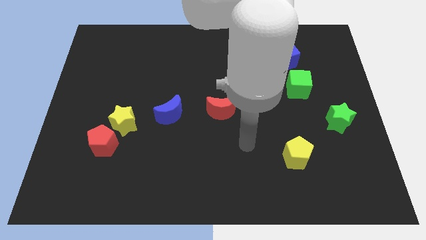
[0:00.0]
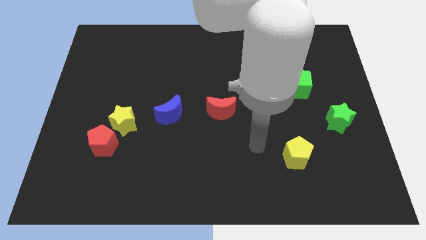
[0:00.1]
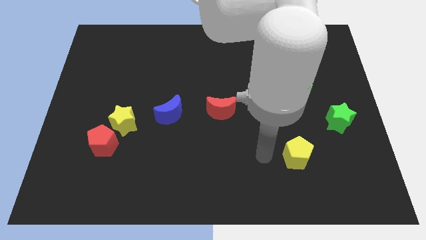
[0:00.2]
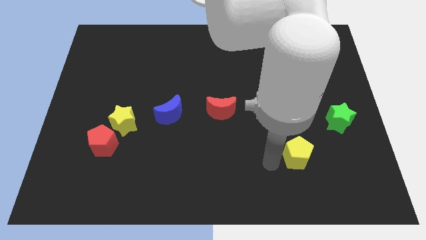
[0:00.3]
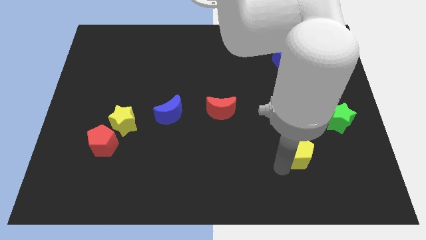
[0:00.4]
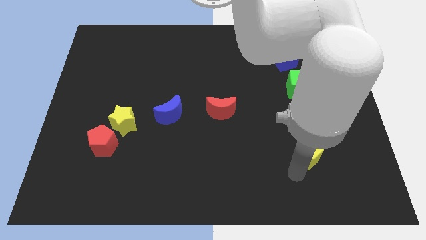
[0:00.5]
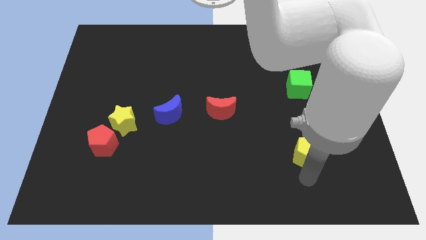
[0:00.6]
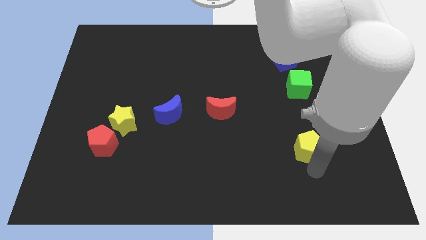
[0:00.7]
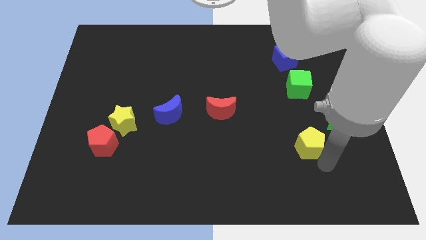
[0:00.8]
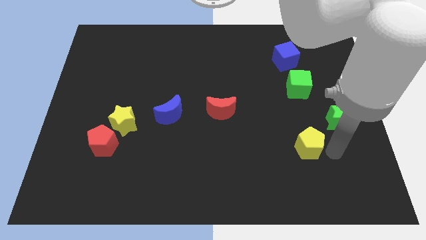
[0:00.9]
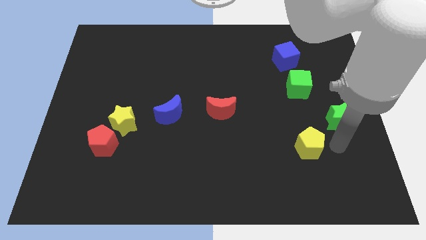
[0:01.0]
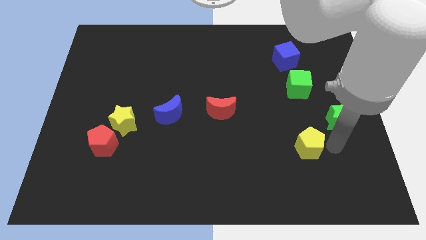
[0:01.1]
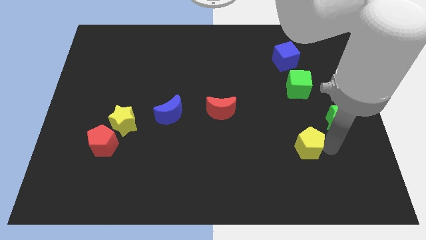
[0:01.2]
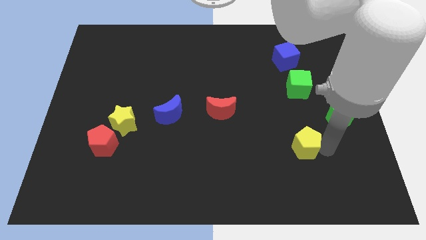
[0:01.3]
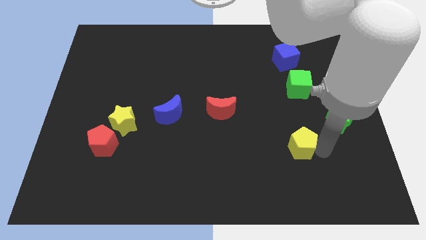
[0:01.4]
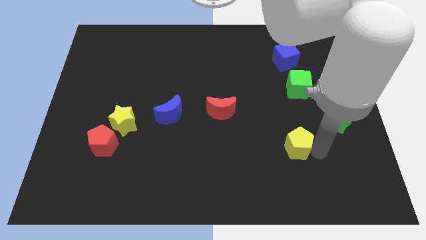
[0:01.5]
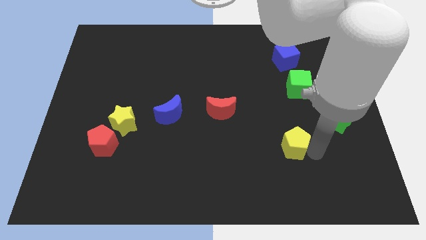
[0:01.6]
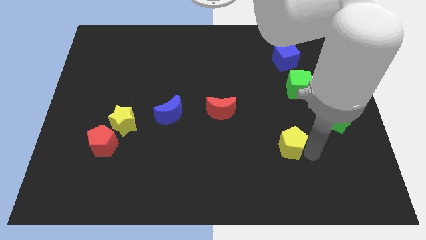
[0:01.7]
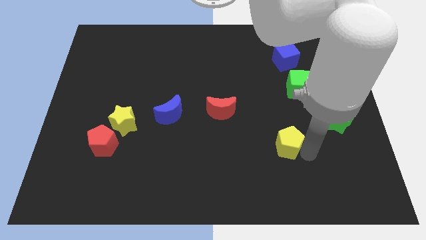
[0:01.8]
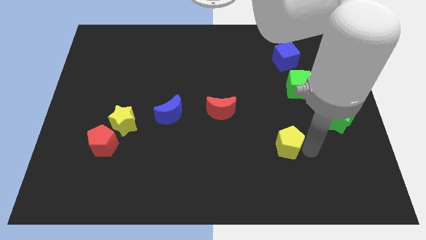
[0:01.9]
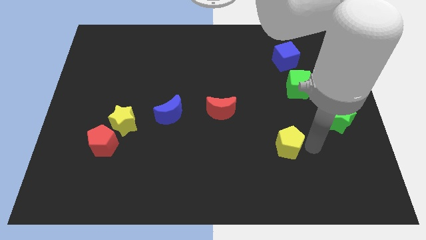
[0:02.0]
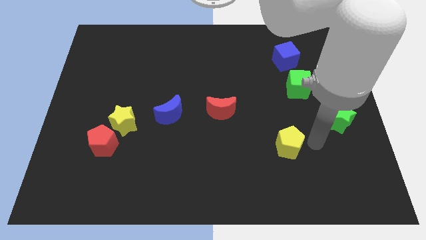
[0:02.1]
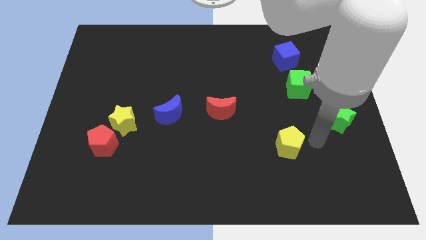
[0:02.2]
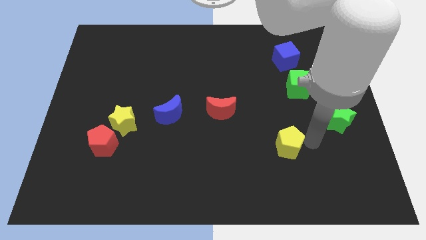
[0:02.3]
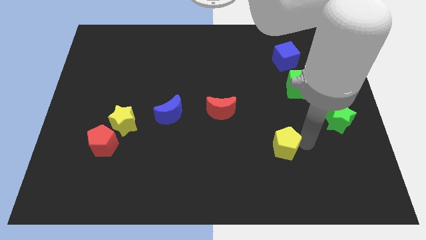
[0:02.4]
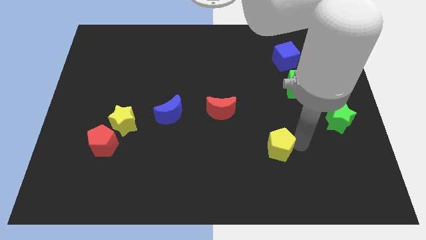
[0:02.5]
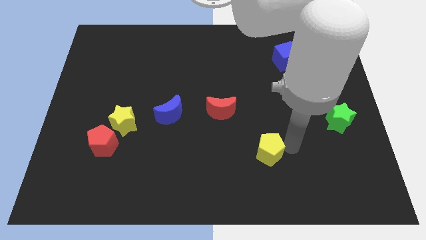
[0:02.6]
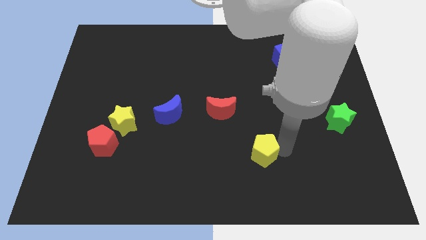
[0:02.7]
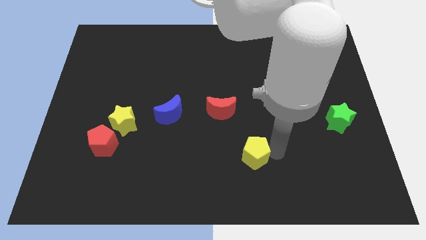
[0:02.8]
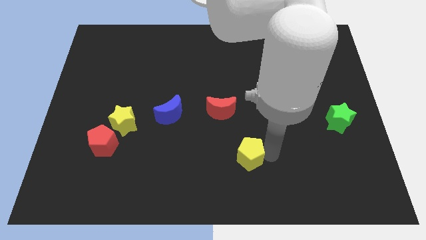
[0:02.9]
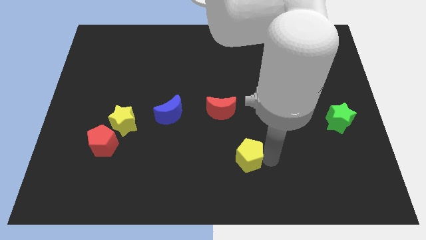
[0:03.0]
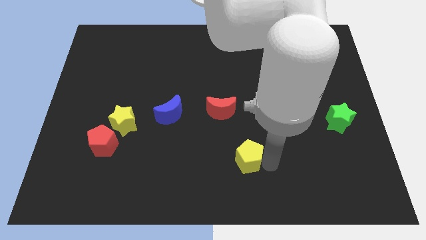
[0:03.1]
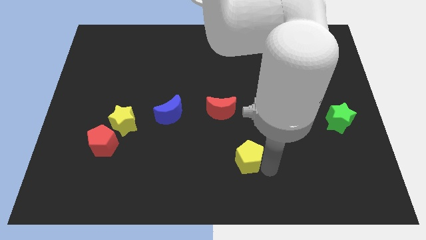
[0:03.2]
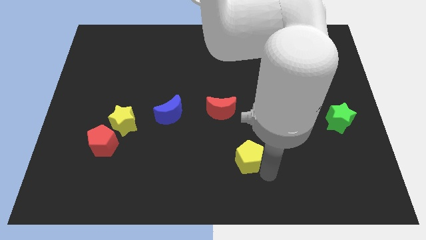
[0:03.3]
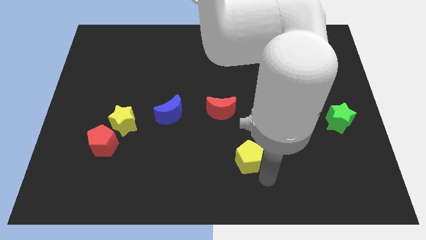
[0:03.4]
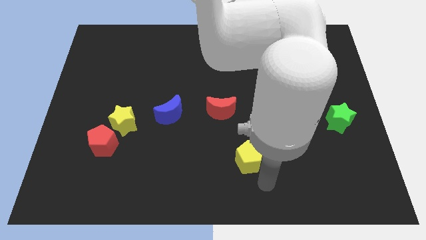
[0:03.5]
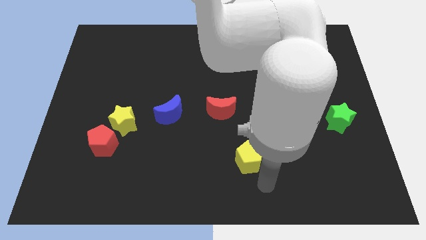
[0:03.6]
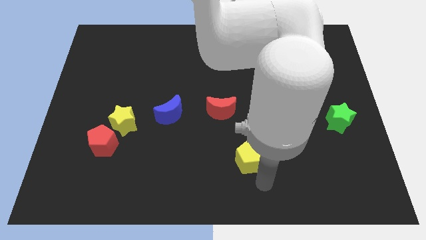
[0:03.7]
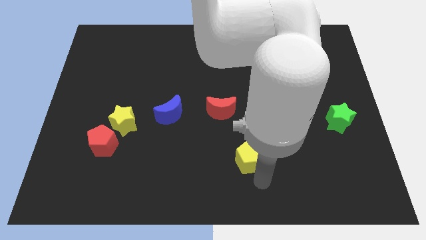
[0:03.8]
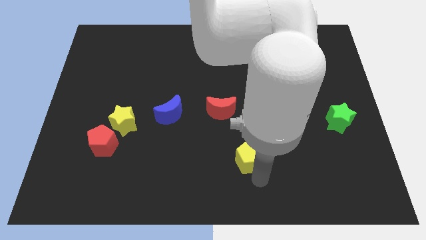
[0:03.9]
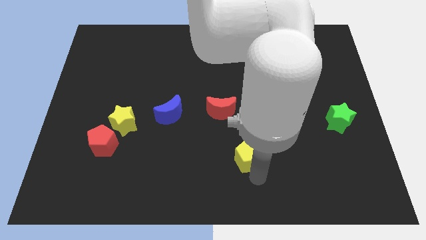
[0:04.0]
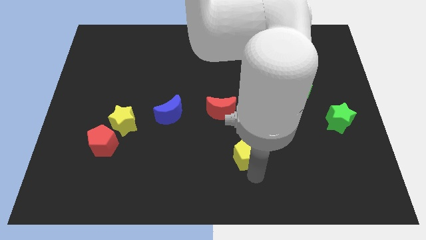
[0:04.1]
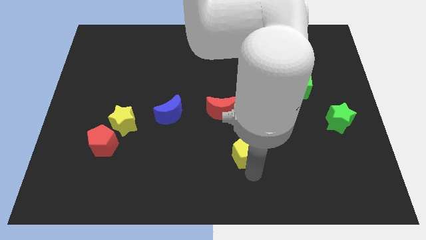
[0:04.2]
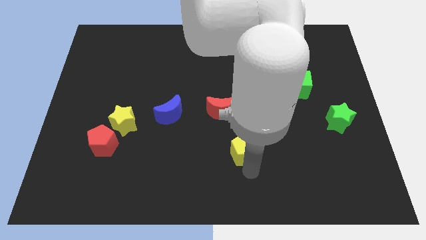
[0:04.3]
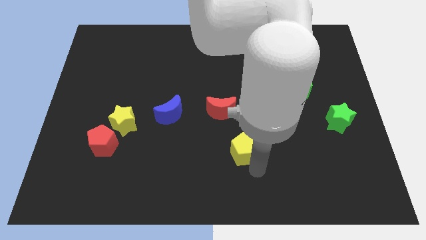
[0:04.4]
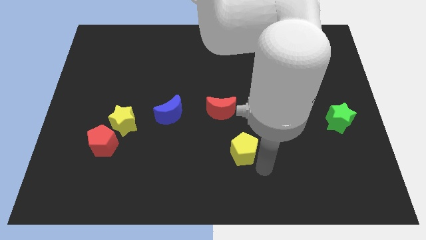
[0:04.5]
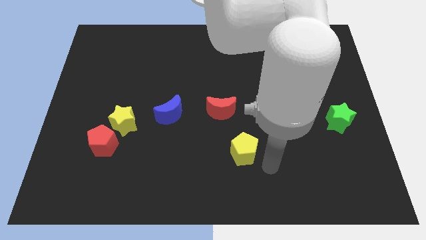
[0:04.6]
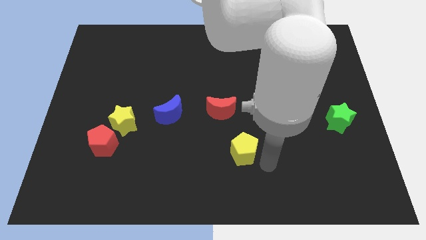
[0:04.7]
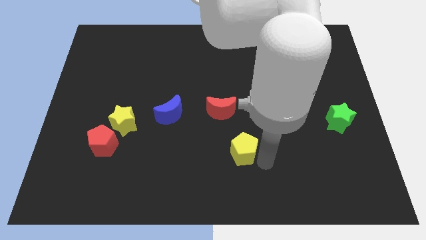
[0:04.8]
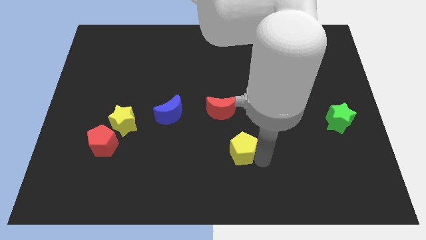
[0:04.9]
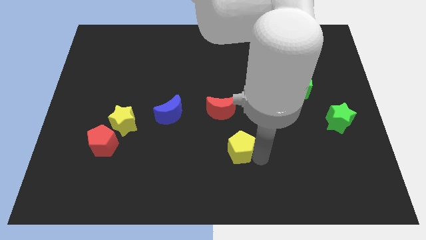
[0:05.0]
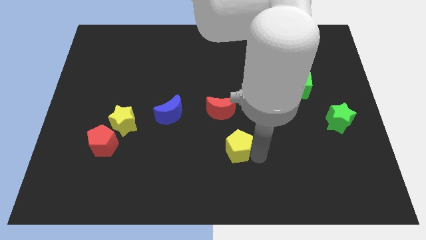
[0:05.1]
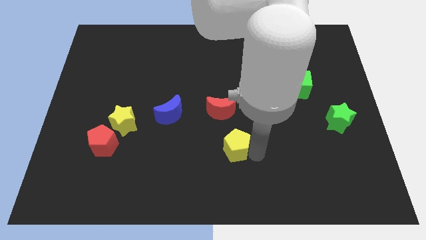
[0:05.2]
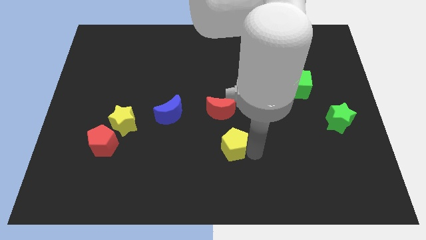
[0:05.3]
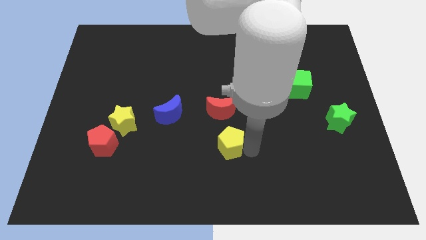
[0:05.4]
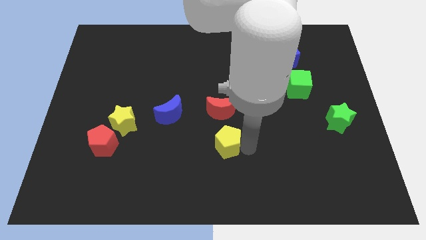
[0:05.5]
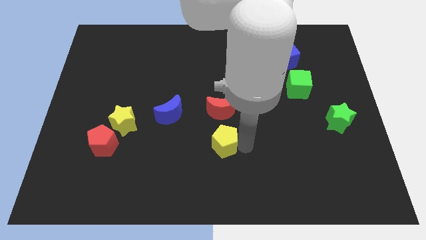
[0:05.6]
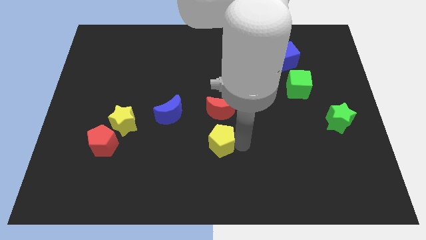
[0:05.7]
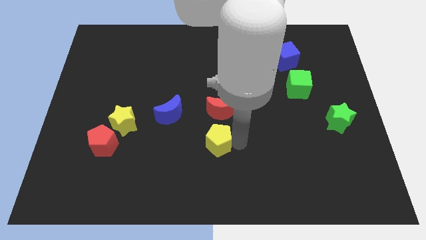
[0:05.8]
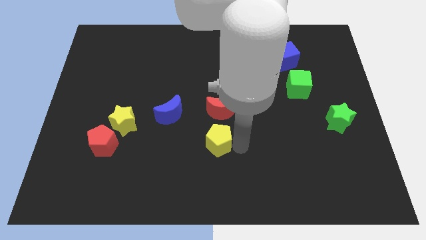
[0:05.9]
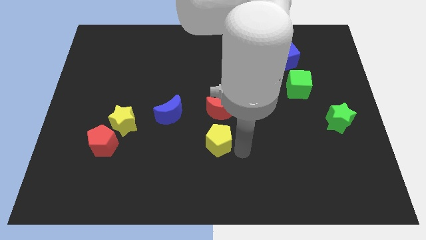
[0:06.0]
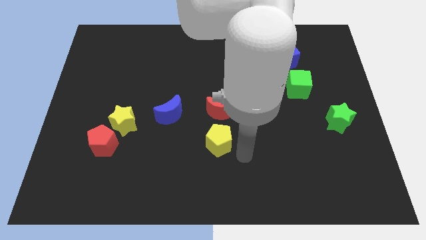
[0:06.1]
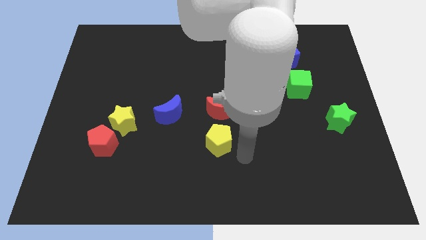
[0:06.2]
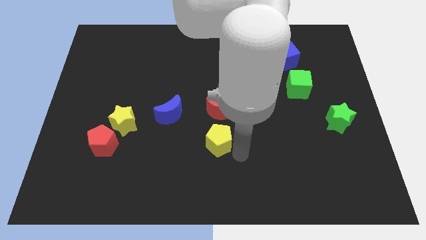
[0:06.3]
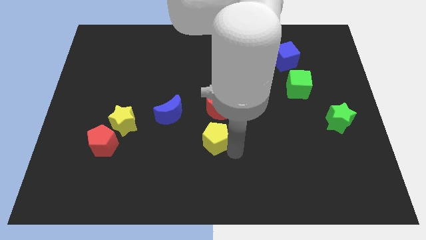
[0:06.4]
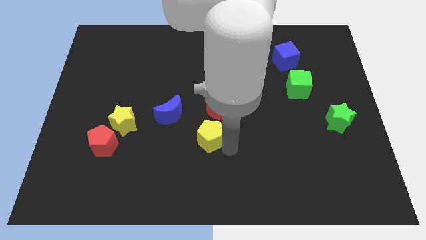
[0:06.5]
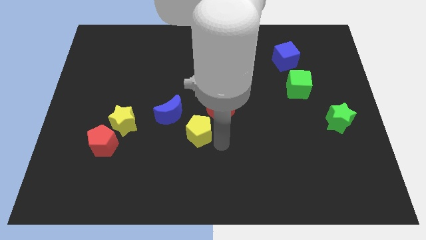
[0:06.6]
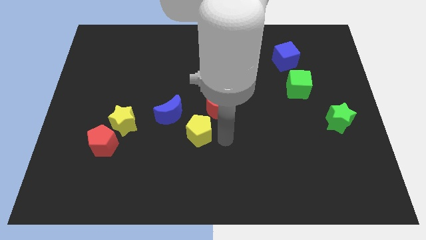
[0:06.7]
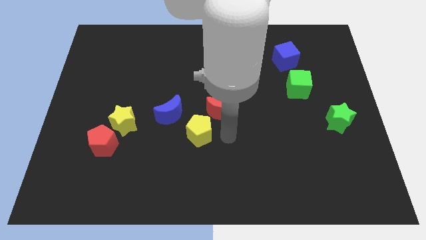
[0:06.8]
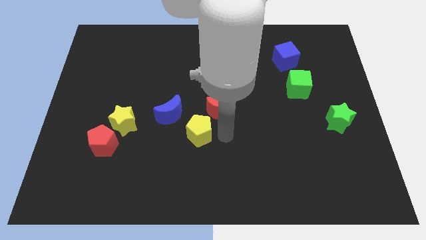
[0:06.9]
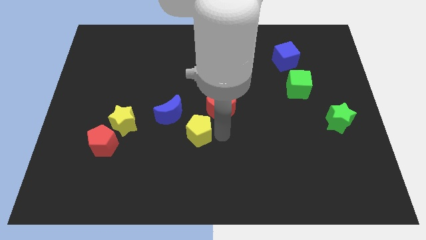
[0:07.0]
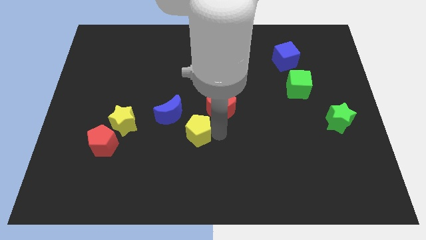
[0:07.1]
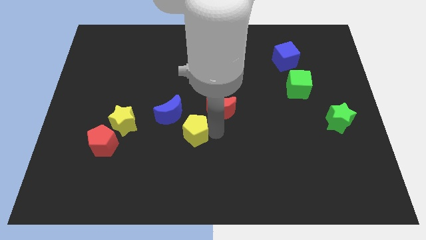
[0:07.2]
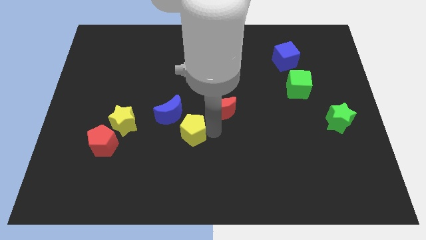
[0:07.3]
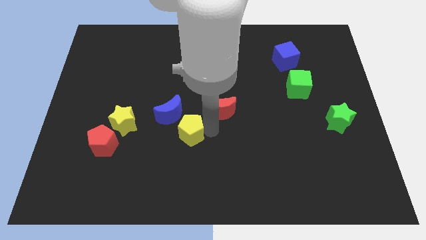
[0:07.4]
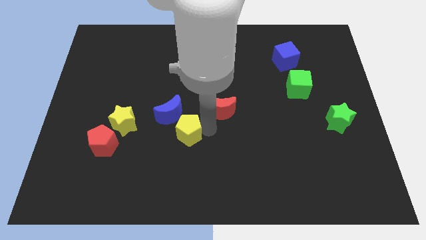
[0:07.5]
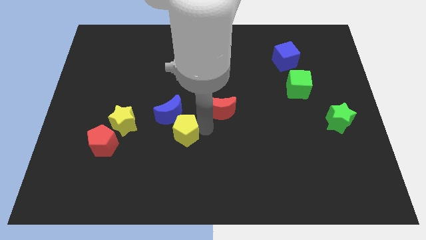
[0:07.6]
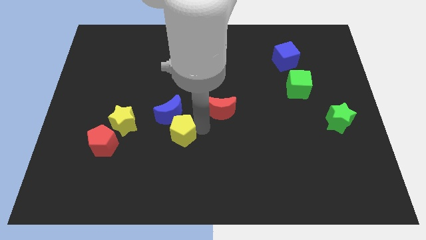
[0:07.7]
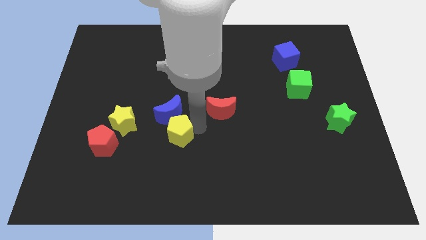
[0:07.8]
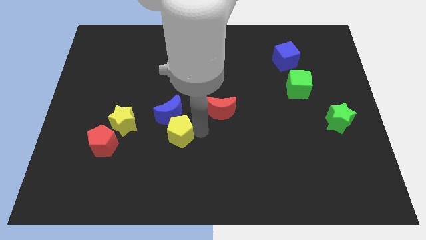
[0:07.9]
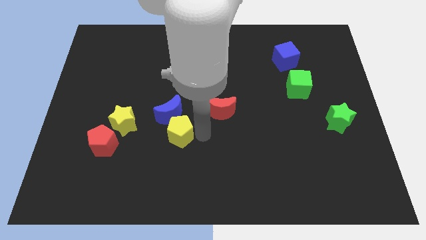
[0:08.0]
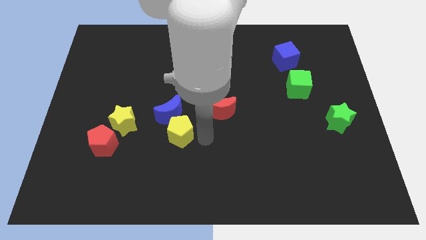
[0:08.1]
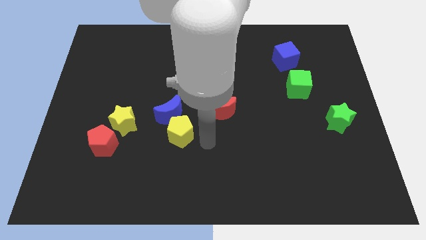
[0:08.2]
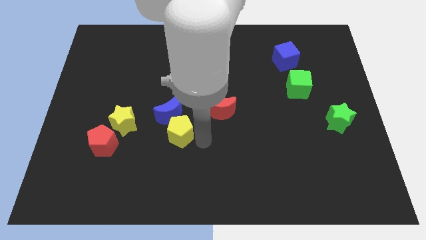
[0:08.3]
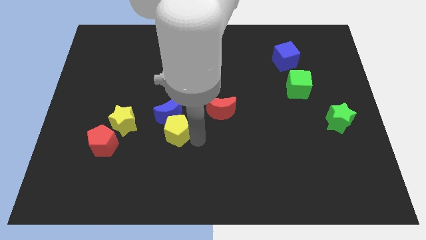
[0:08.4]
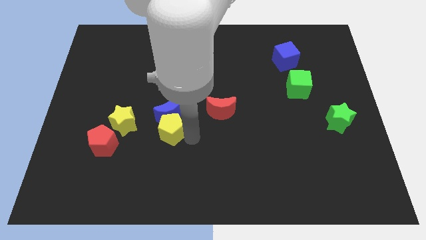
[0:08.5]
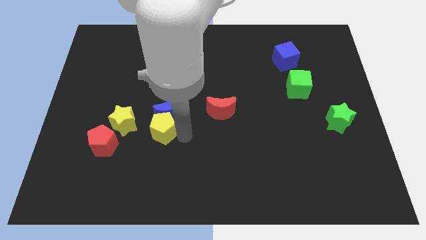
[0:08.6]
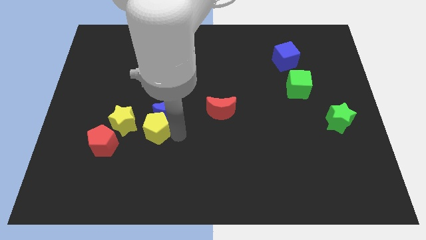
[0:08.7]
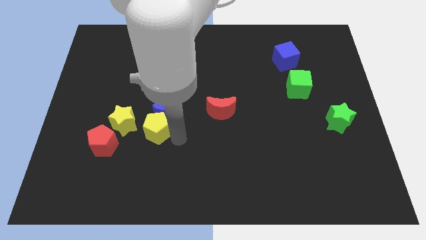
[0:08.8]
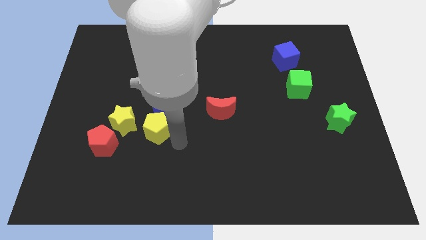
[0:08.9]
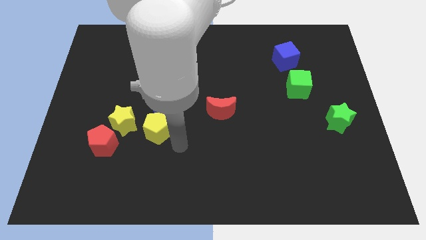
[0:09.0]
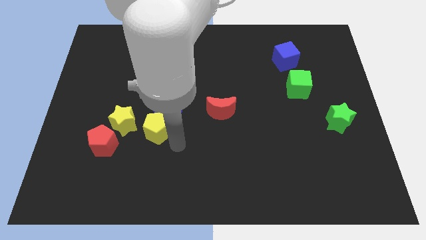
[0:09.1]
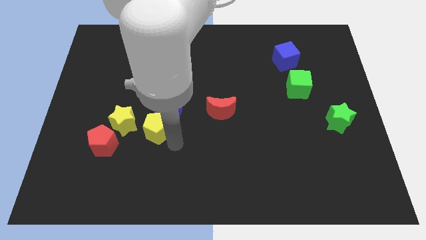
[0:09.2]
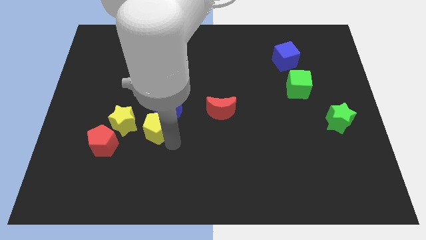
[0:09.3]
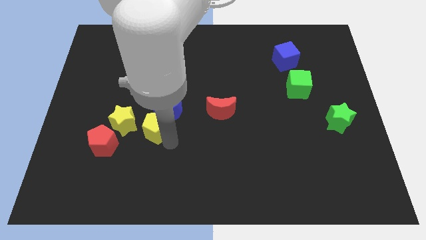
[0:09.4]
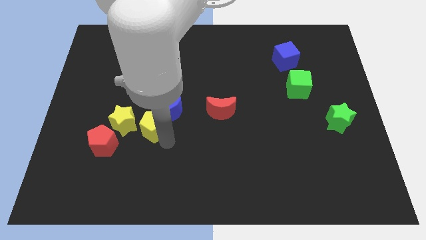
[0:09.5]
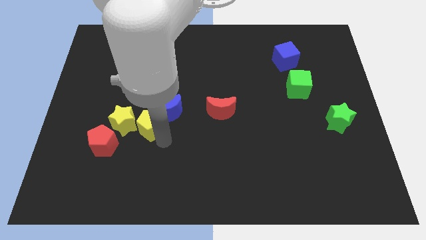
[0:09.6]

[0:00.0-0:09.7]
move the yellow pentagon to the yellow star
